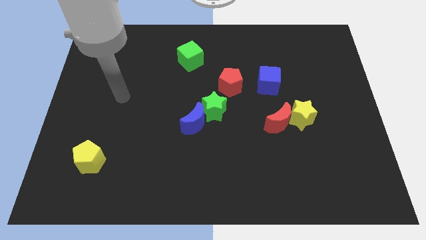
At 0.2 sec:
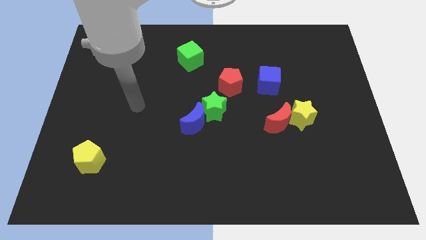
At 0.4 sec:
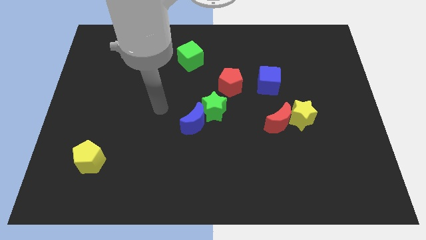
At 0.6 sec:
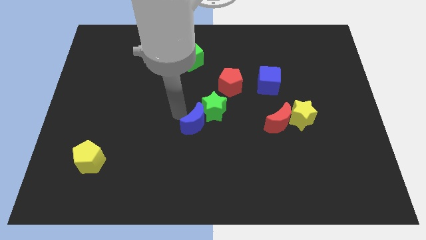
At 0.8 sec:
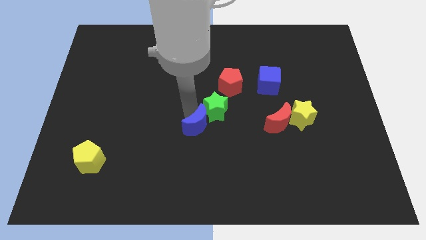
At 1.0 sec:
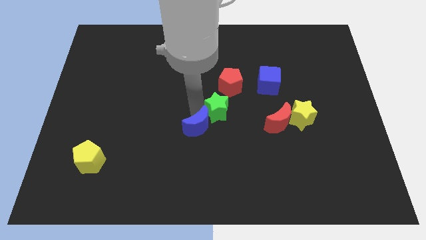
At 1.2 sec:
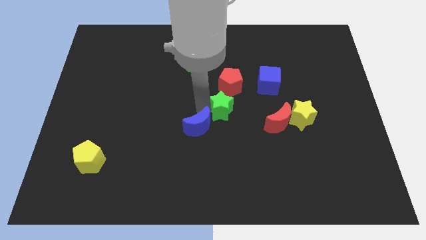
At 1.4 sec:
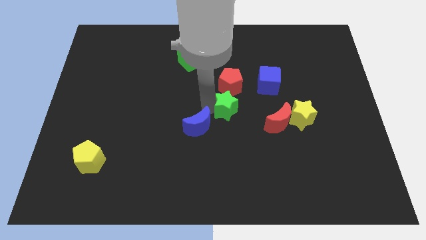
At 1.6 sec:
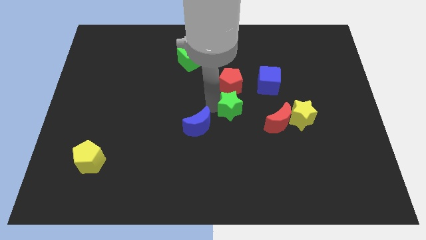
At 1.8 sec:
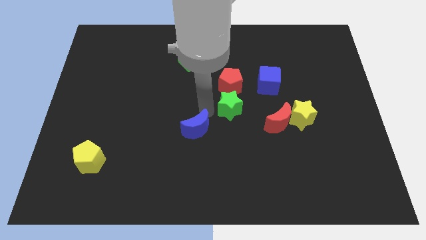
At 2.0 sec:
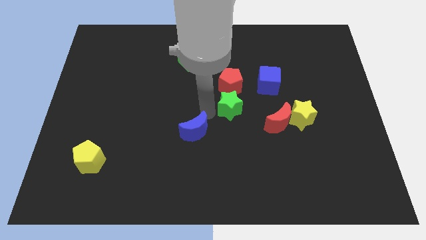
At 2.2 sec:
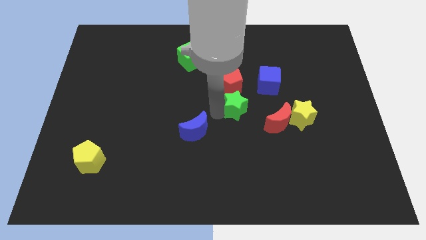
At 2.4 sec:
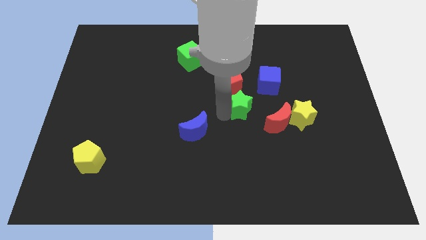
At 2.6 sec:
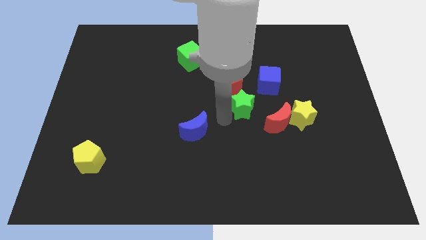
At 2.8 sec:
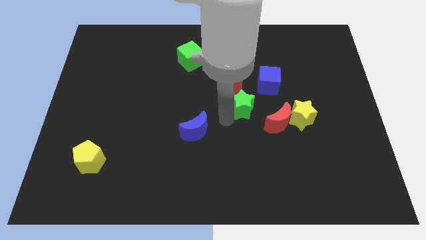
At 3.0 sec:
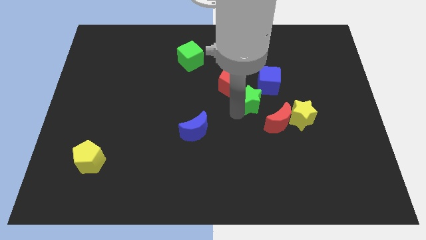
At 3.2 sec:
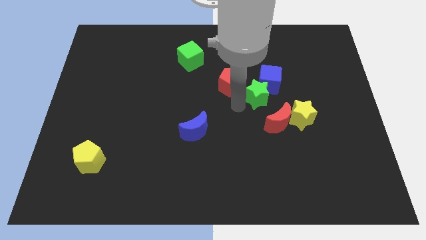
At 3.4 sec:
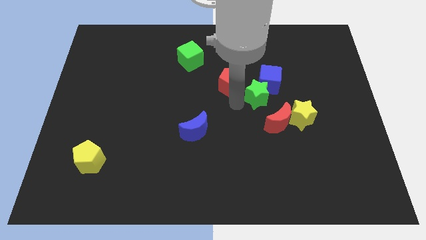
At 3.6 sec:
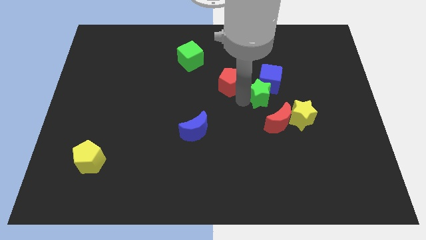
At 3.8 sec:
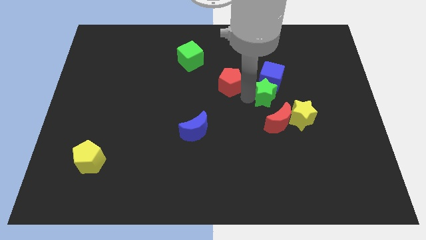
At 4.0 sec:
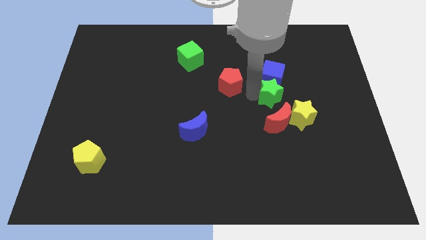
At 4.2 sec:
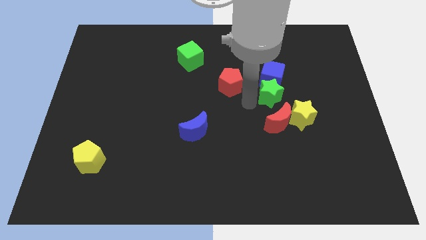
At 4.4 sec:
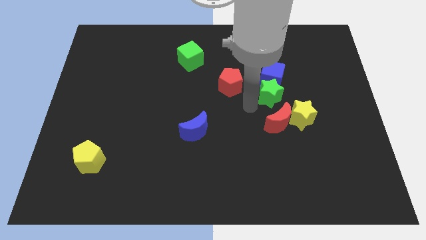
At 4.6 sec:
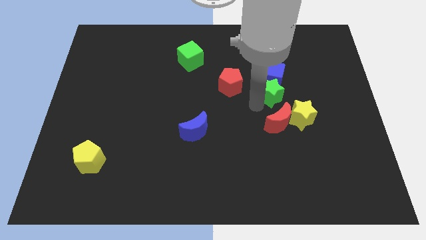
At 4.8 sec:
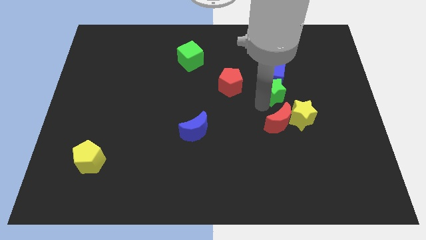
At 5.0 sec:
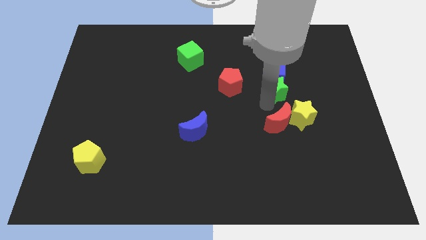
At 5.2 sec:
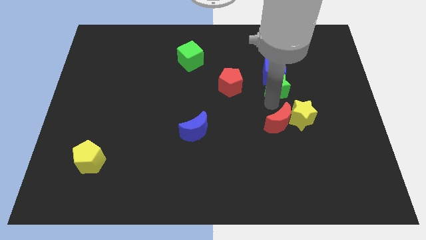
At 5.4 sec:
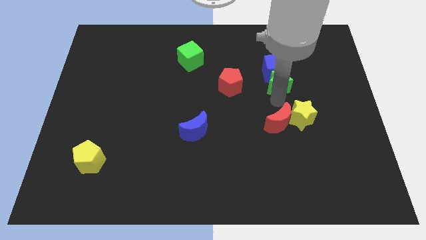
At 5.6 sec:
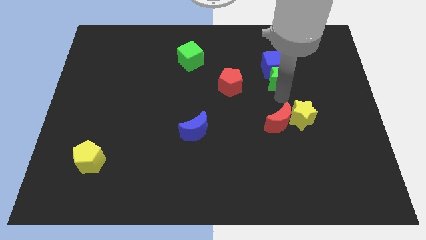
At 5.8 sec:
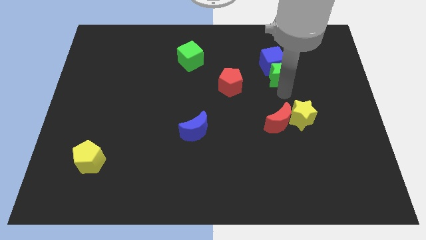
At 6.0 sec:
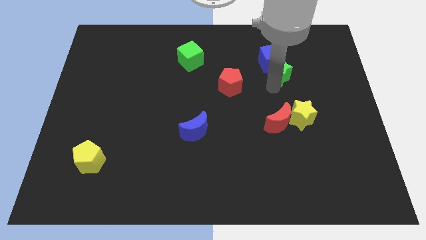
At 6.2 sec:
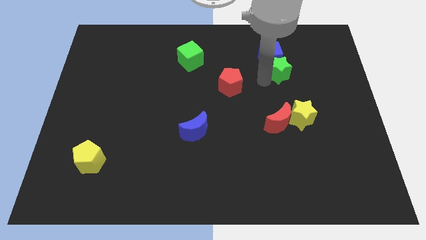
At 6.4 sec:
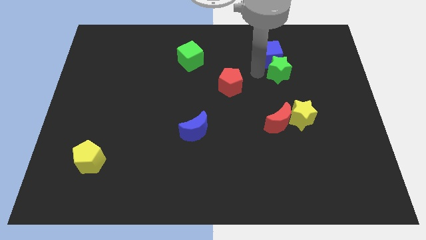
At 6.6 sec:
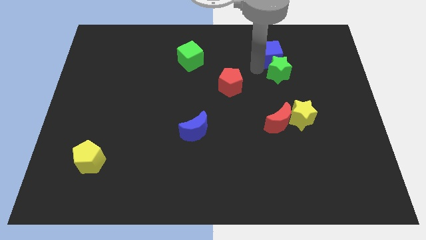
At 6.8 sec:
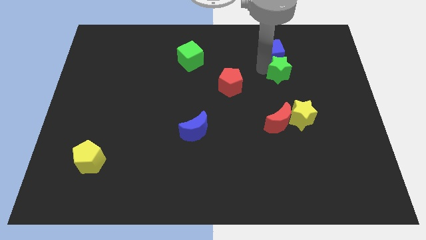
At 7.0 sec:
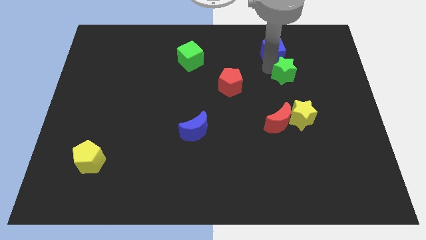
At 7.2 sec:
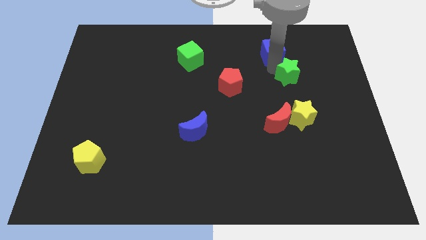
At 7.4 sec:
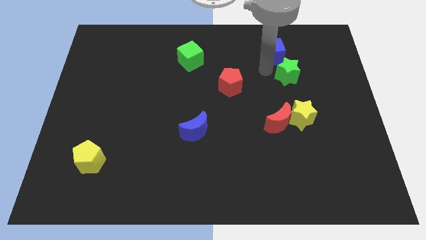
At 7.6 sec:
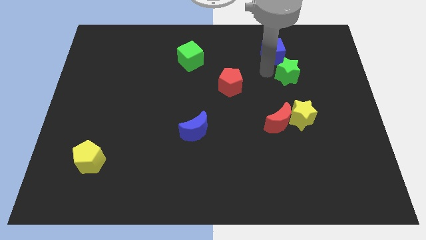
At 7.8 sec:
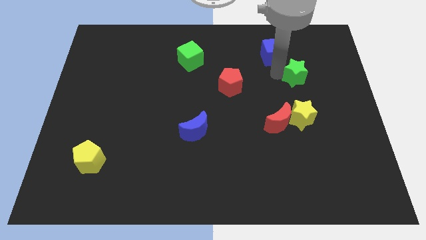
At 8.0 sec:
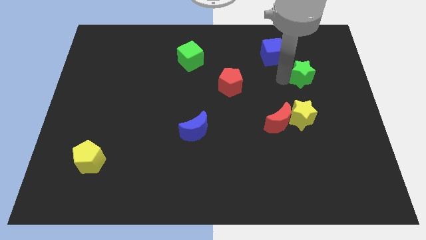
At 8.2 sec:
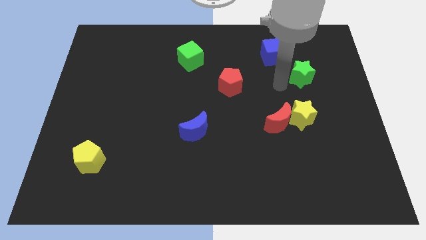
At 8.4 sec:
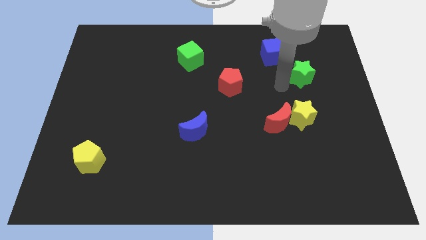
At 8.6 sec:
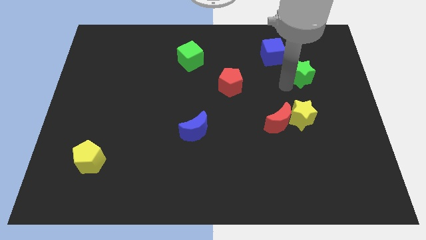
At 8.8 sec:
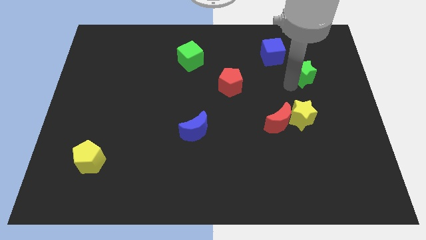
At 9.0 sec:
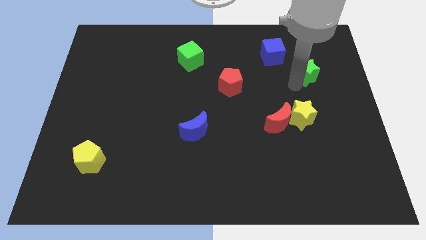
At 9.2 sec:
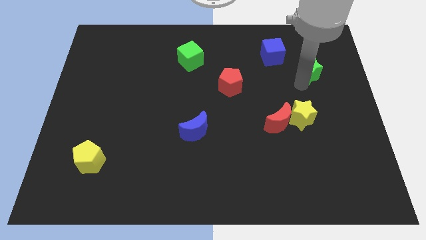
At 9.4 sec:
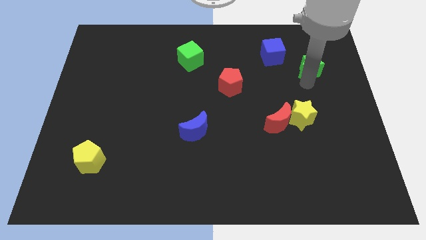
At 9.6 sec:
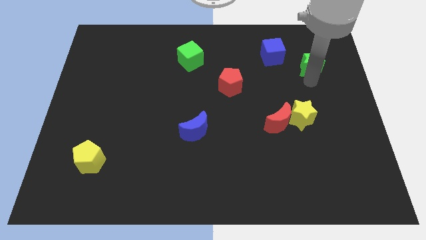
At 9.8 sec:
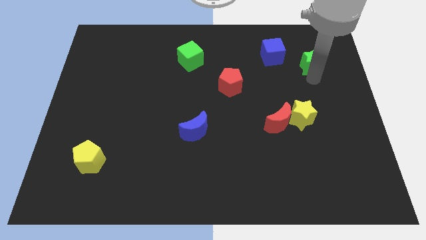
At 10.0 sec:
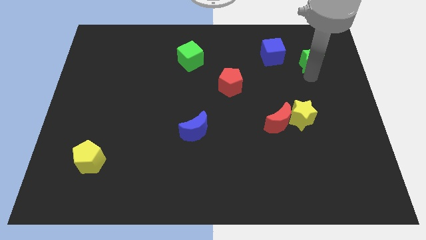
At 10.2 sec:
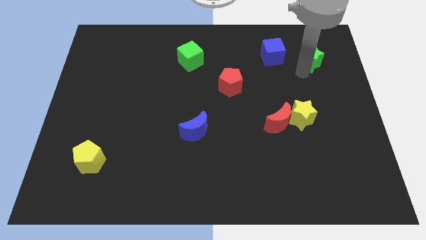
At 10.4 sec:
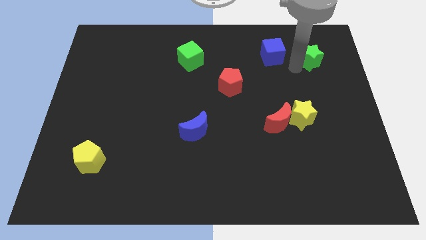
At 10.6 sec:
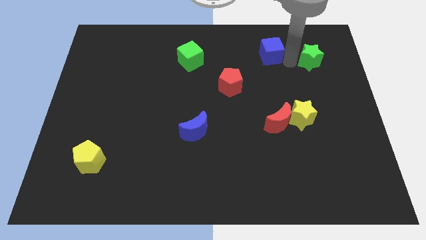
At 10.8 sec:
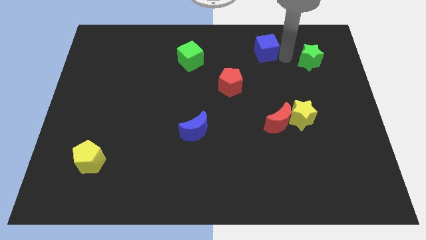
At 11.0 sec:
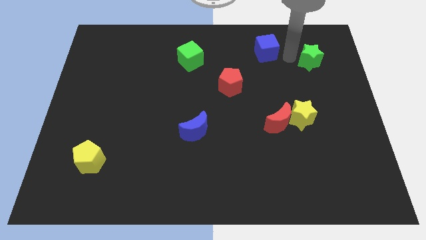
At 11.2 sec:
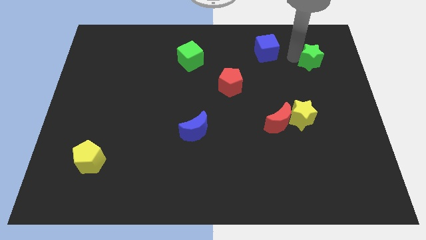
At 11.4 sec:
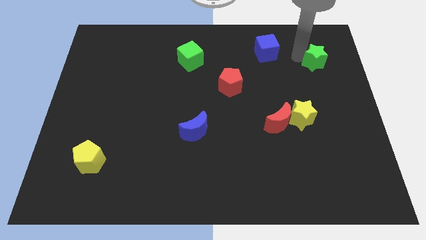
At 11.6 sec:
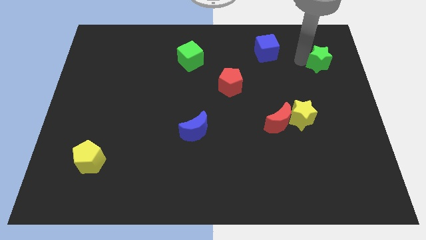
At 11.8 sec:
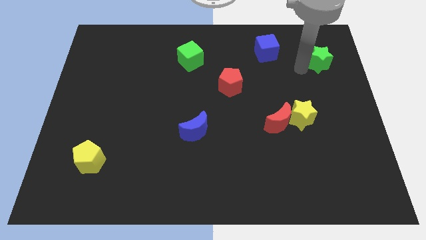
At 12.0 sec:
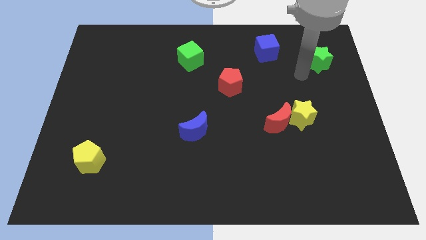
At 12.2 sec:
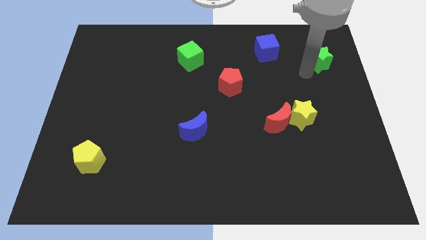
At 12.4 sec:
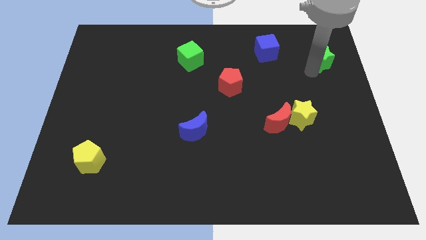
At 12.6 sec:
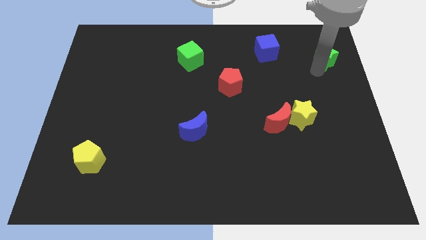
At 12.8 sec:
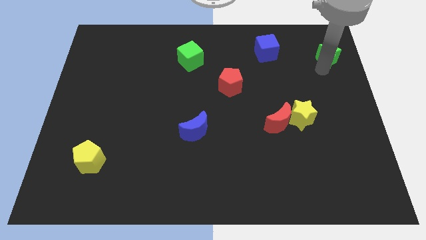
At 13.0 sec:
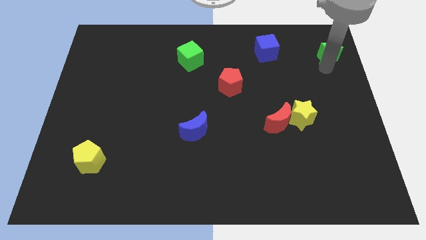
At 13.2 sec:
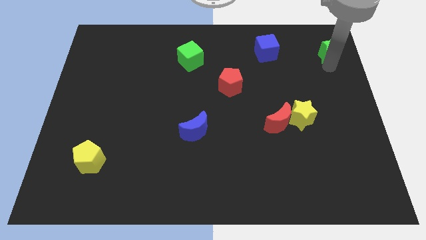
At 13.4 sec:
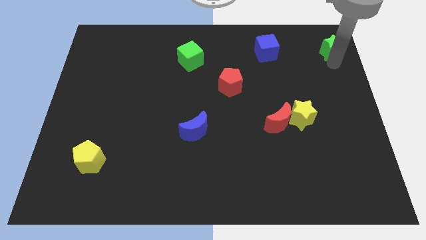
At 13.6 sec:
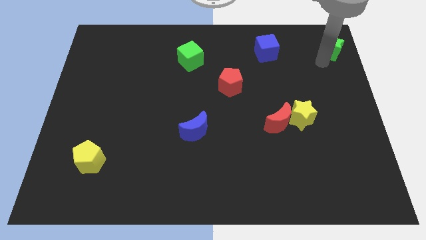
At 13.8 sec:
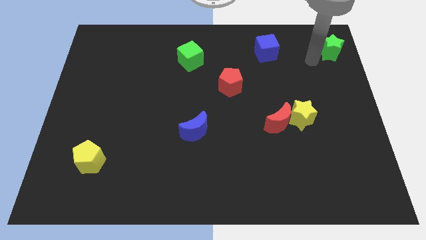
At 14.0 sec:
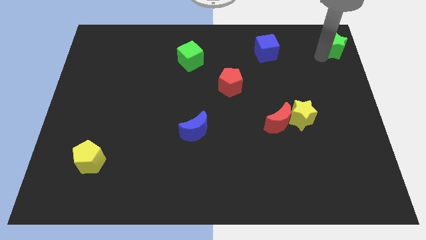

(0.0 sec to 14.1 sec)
slide the green star to the top right corner
